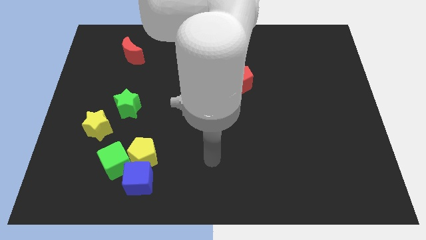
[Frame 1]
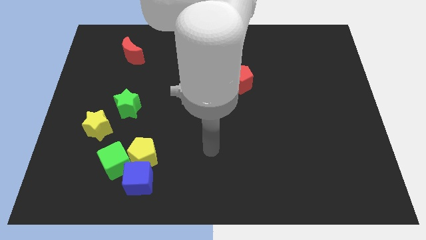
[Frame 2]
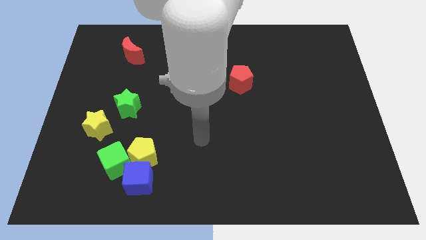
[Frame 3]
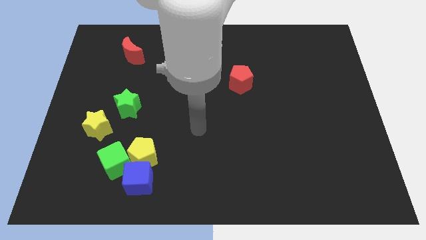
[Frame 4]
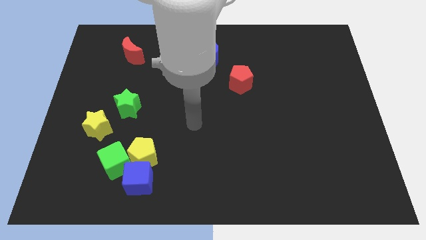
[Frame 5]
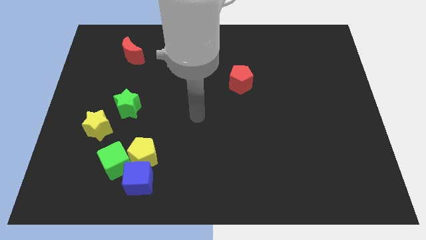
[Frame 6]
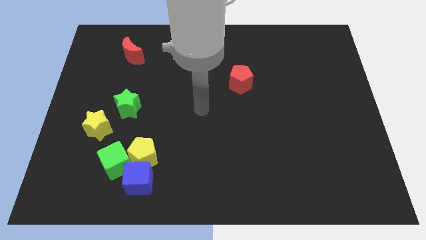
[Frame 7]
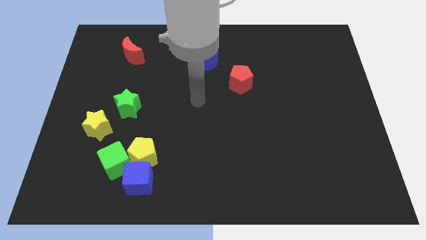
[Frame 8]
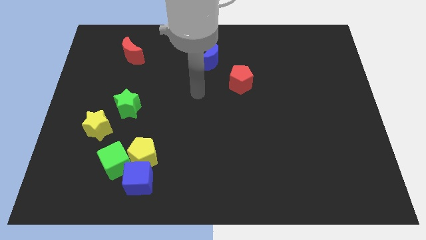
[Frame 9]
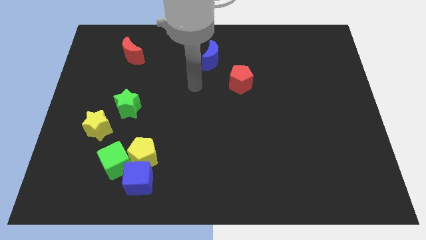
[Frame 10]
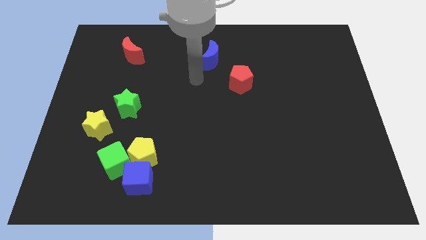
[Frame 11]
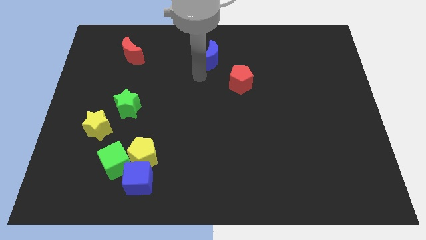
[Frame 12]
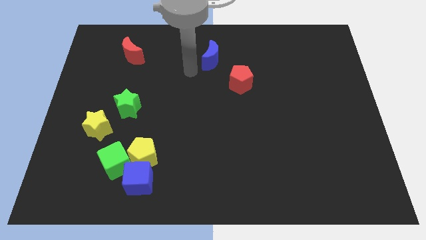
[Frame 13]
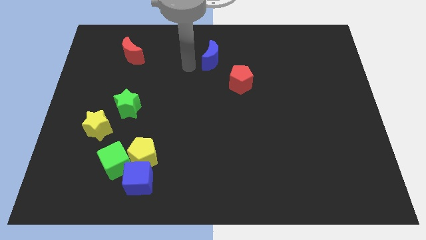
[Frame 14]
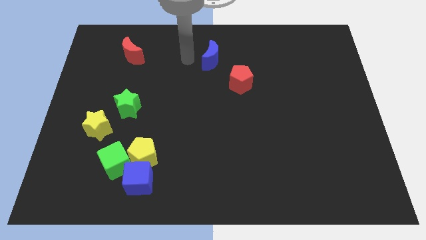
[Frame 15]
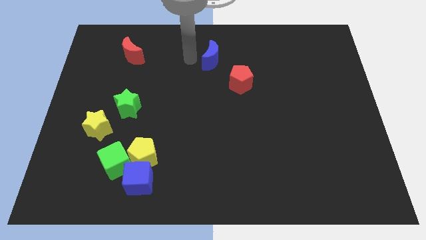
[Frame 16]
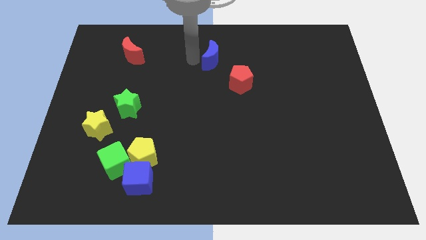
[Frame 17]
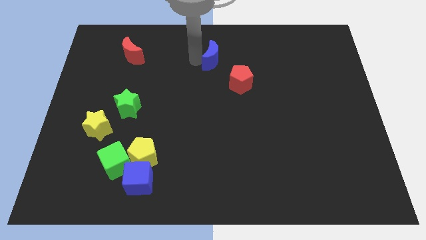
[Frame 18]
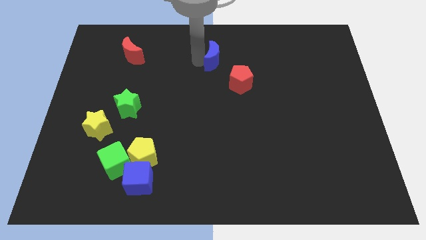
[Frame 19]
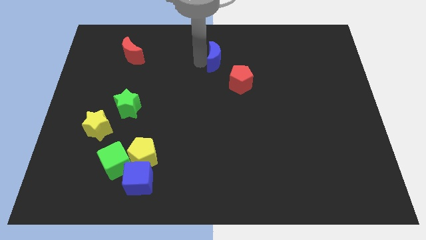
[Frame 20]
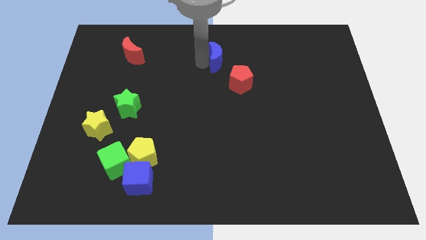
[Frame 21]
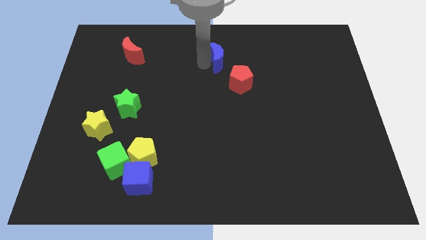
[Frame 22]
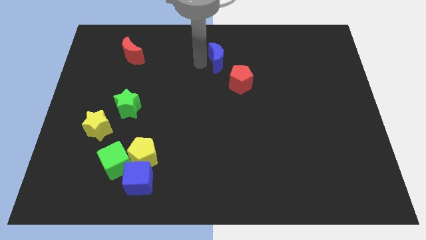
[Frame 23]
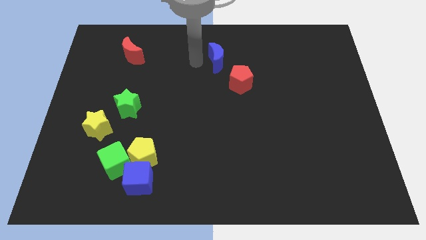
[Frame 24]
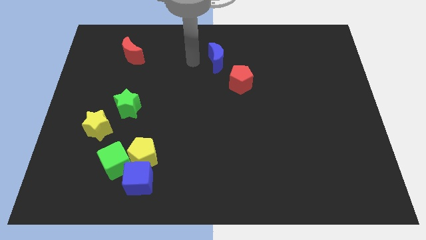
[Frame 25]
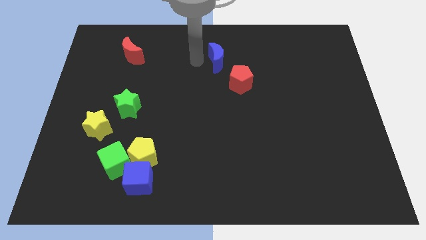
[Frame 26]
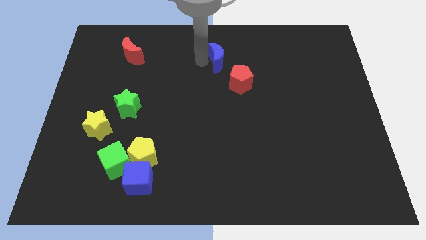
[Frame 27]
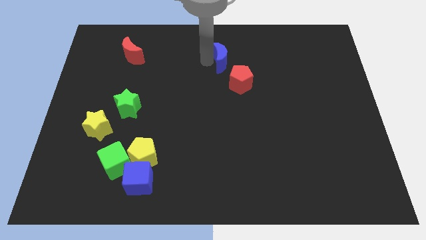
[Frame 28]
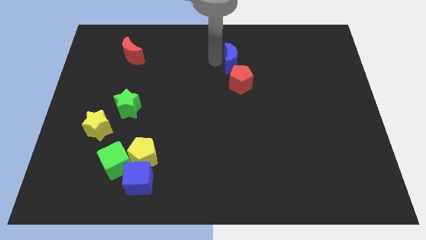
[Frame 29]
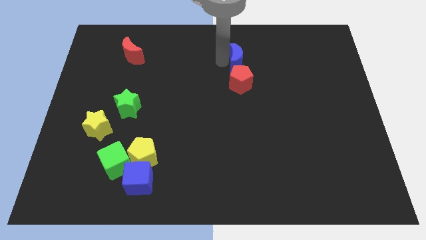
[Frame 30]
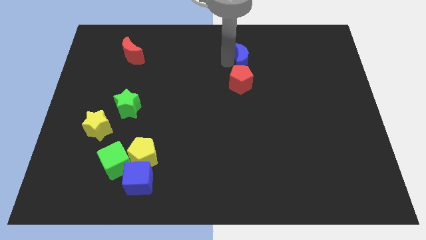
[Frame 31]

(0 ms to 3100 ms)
slightly slide the blue moon right

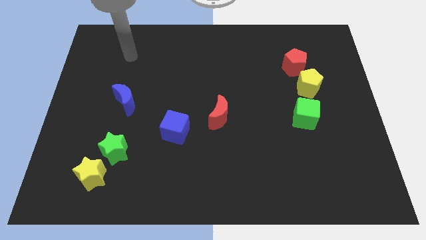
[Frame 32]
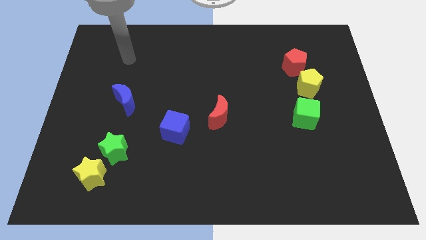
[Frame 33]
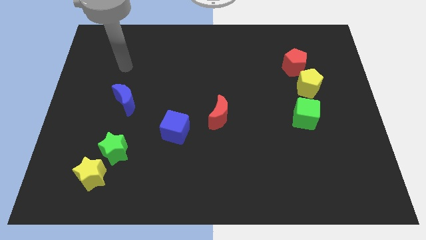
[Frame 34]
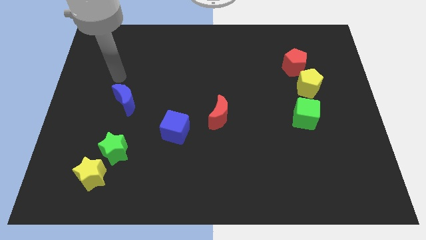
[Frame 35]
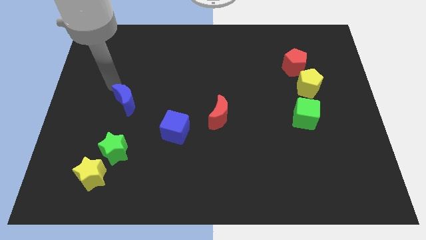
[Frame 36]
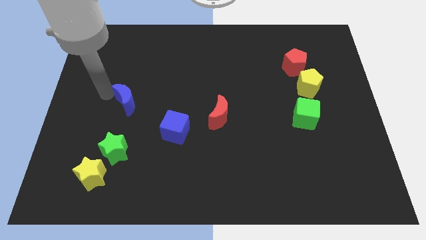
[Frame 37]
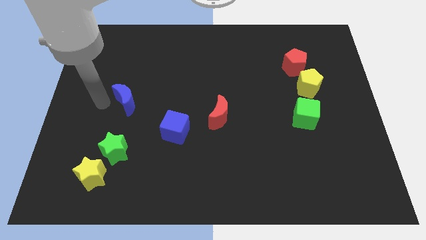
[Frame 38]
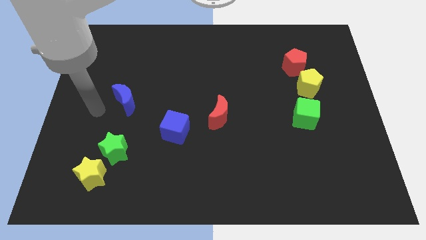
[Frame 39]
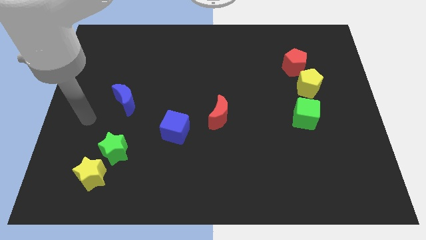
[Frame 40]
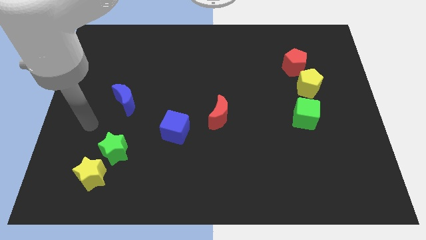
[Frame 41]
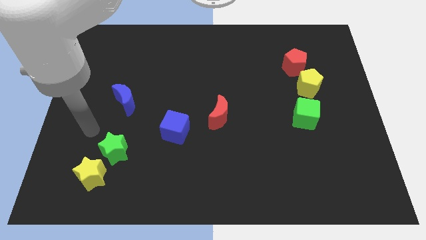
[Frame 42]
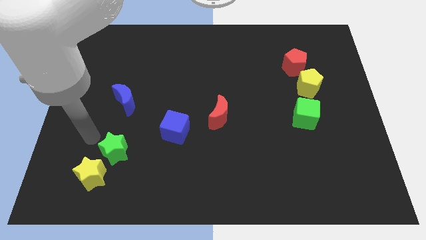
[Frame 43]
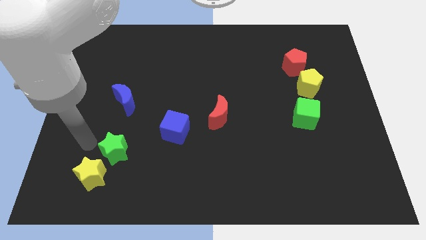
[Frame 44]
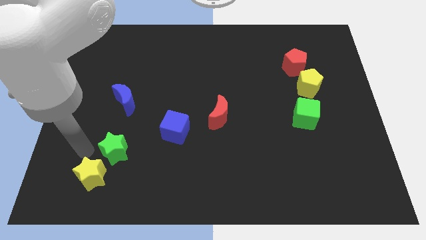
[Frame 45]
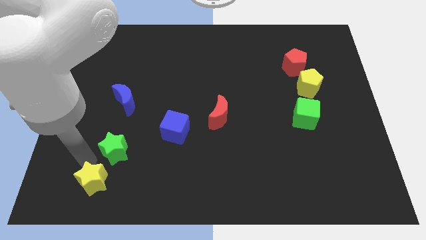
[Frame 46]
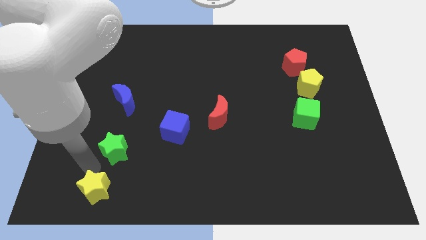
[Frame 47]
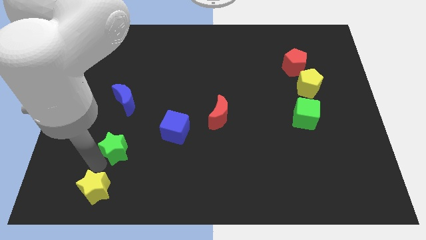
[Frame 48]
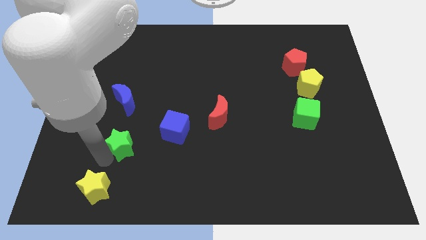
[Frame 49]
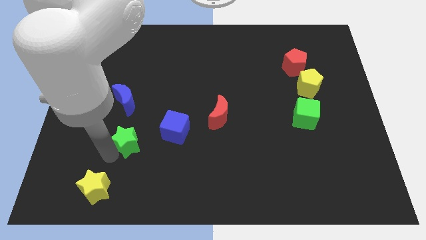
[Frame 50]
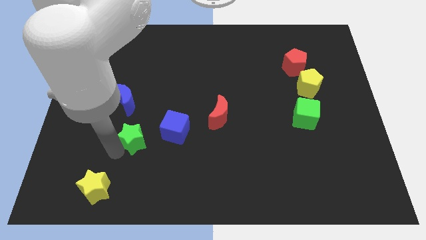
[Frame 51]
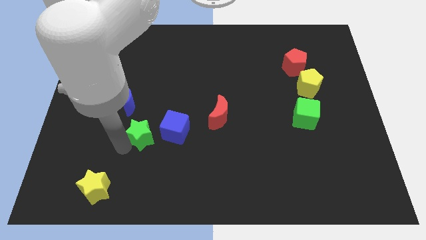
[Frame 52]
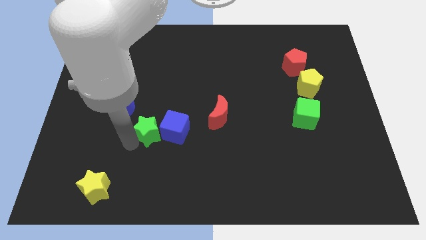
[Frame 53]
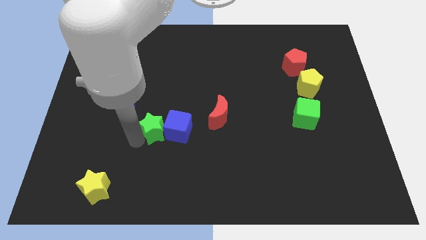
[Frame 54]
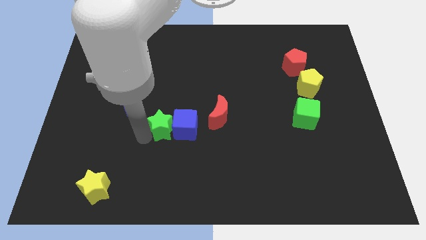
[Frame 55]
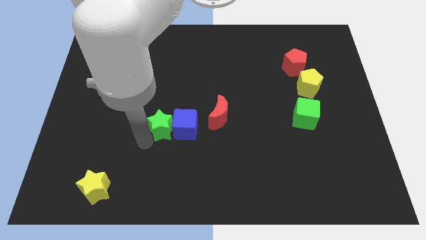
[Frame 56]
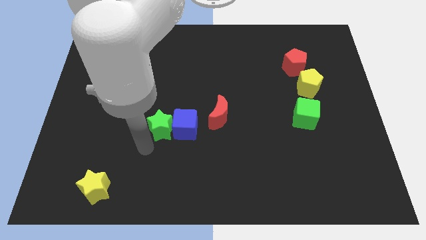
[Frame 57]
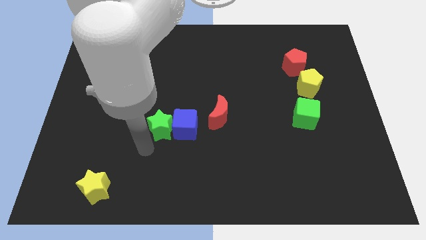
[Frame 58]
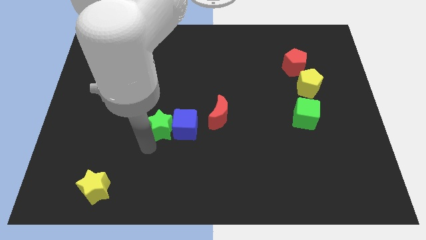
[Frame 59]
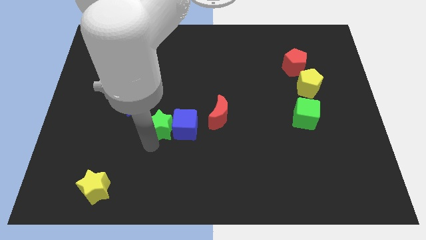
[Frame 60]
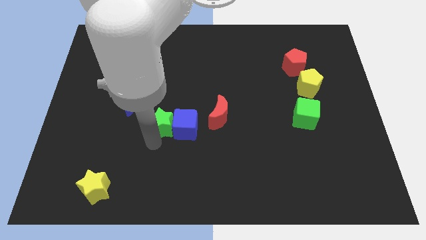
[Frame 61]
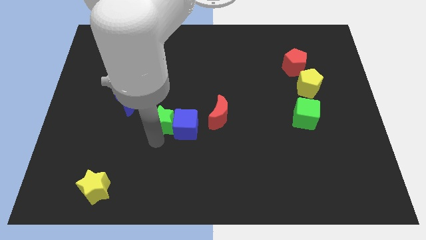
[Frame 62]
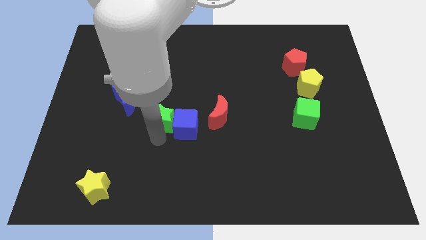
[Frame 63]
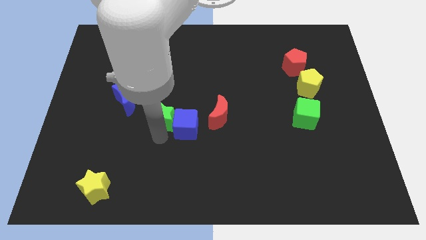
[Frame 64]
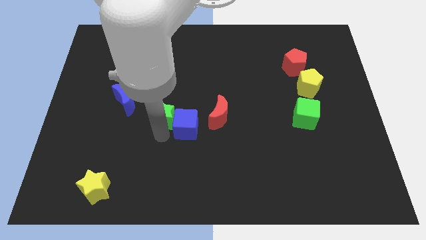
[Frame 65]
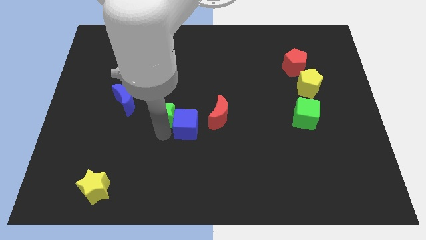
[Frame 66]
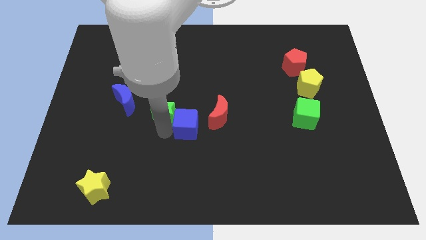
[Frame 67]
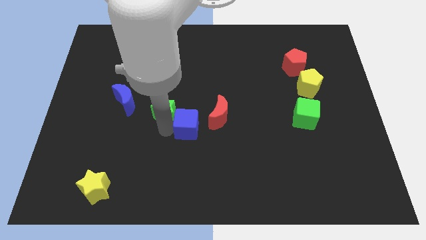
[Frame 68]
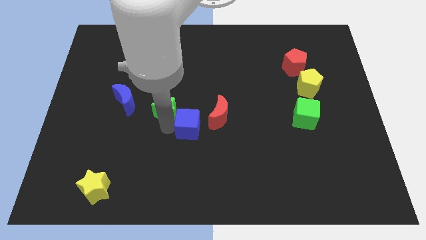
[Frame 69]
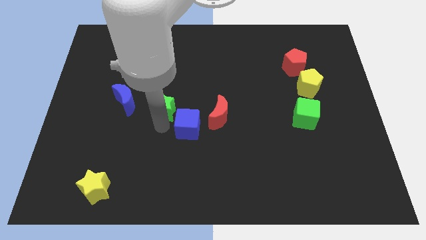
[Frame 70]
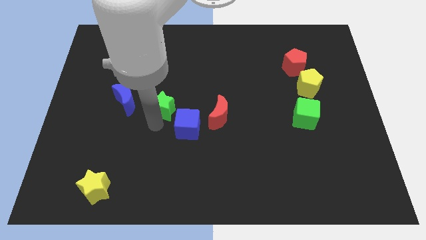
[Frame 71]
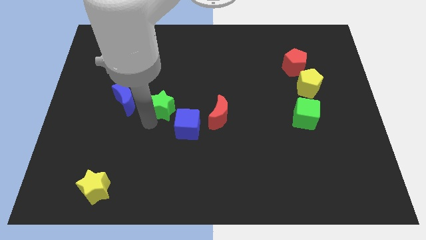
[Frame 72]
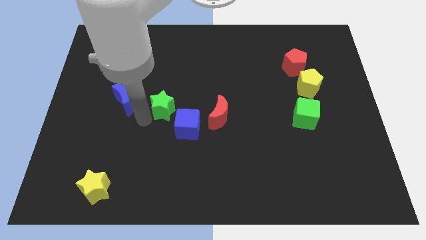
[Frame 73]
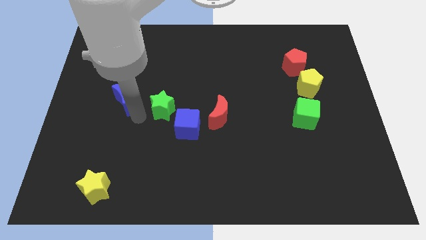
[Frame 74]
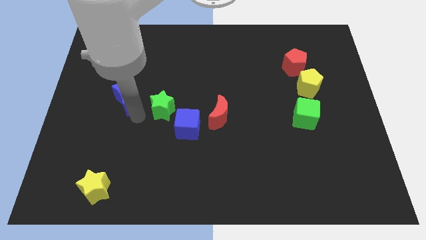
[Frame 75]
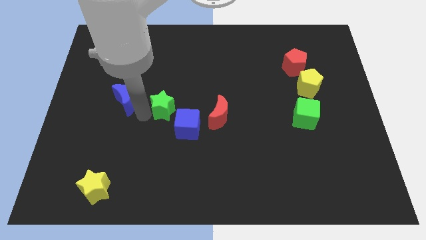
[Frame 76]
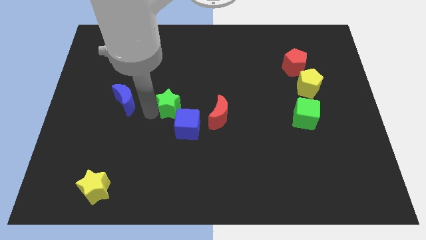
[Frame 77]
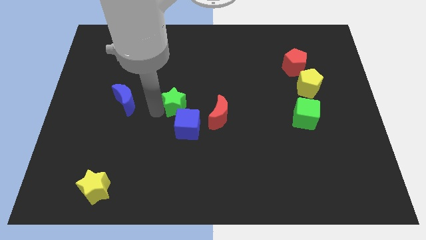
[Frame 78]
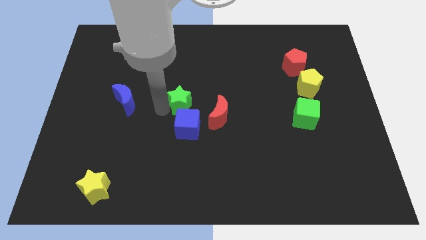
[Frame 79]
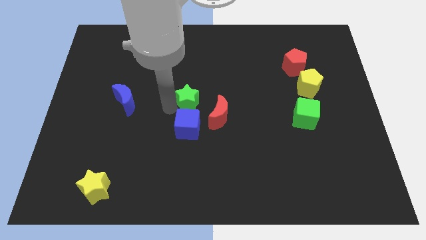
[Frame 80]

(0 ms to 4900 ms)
push the green star up and right diagonally
